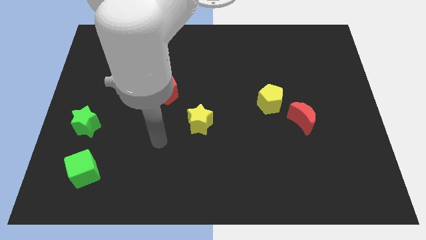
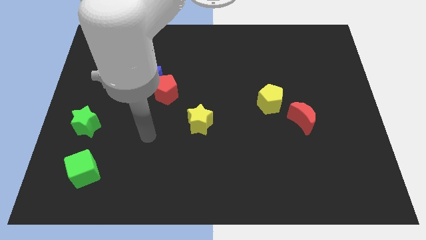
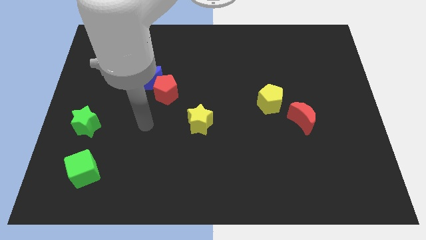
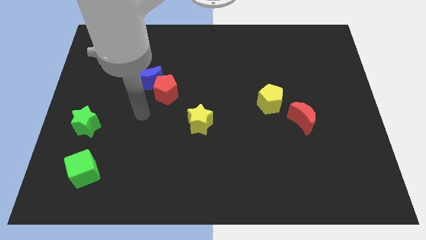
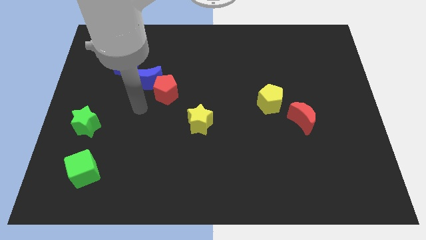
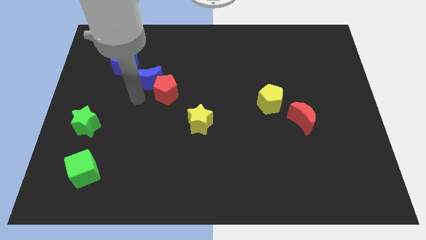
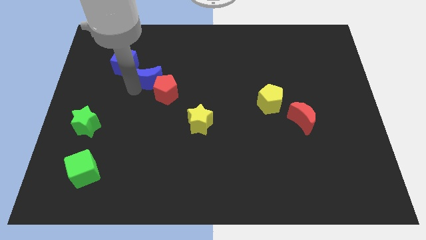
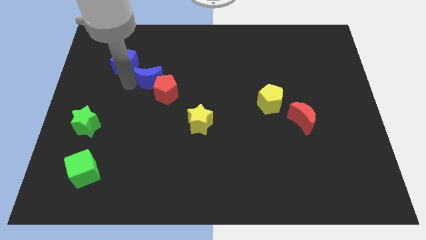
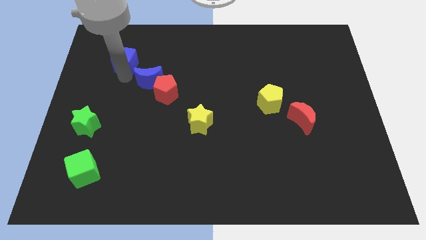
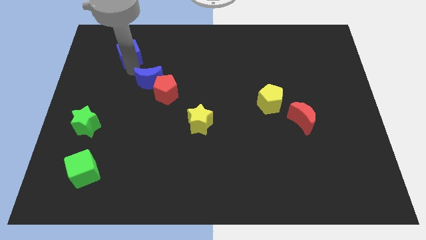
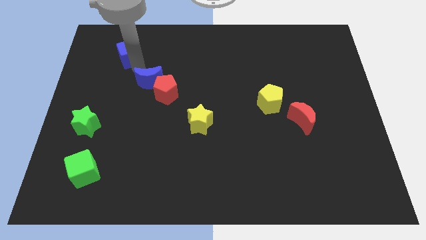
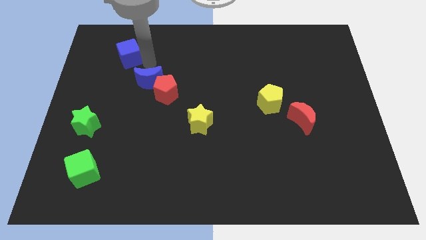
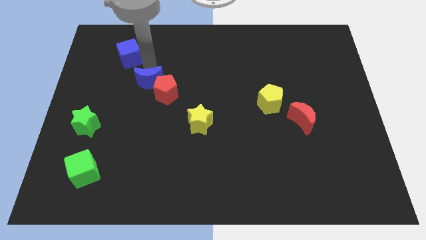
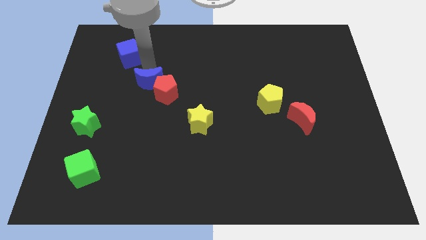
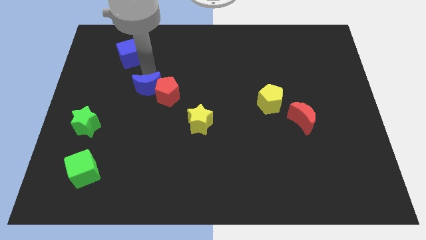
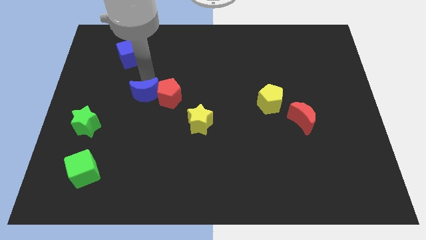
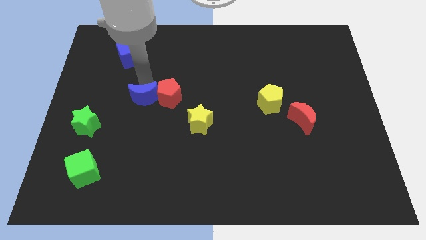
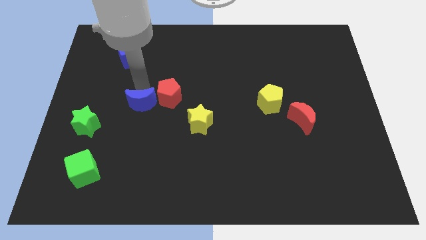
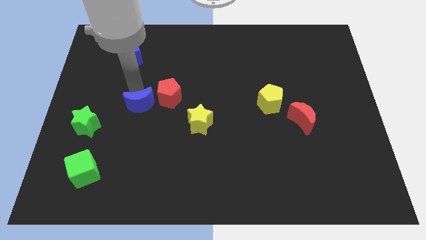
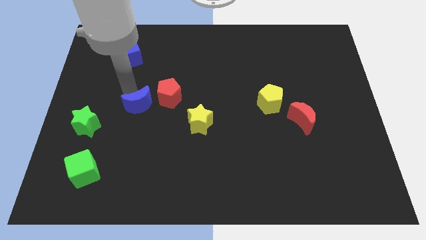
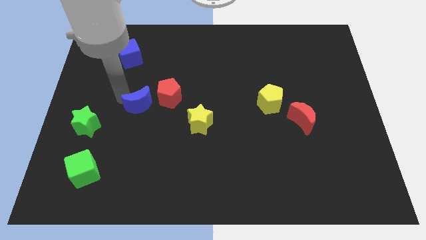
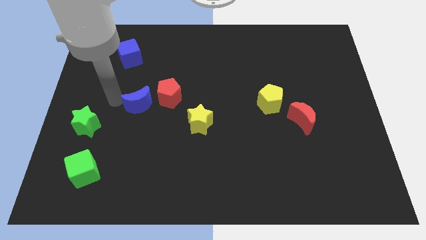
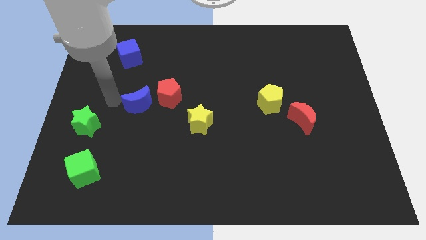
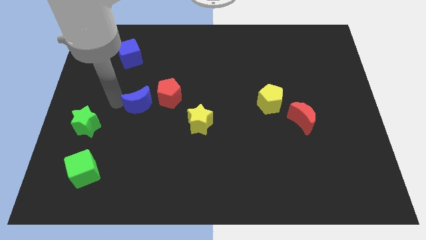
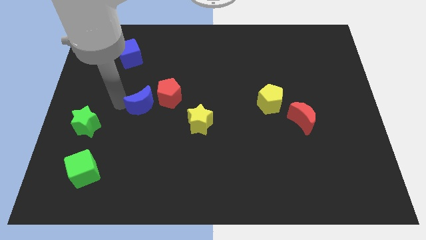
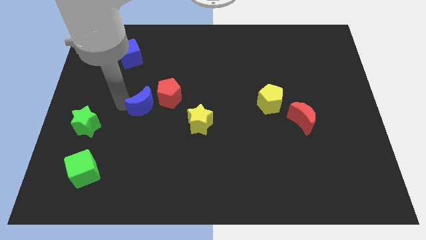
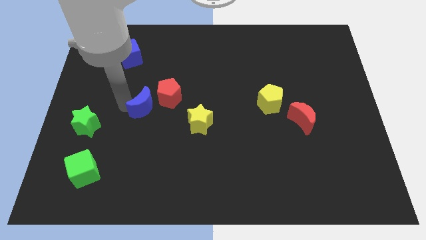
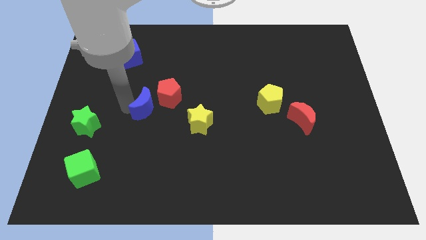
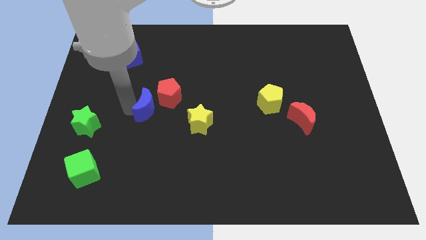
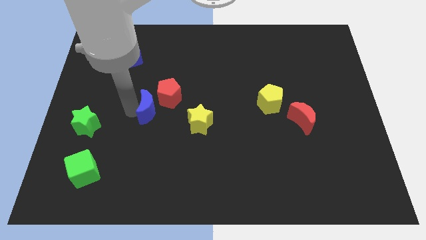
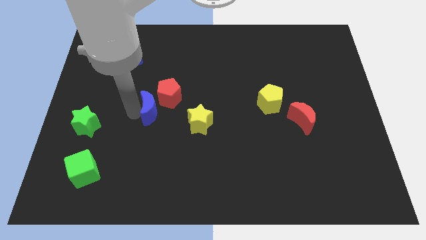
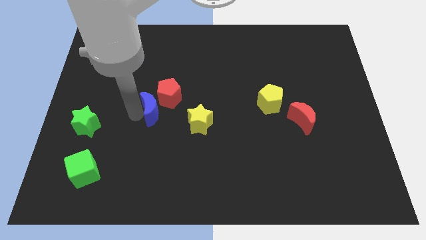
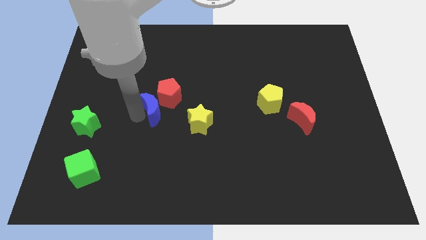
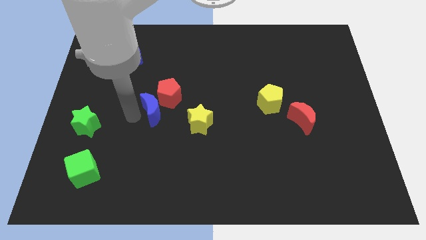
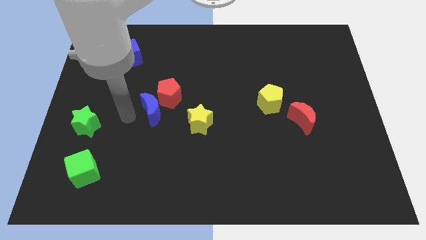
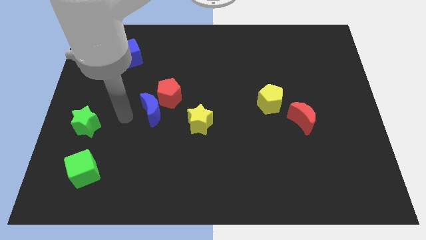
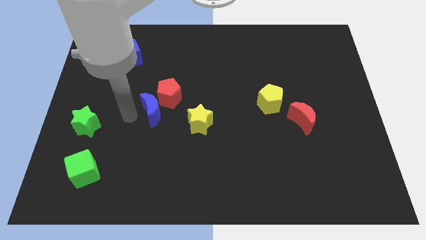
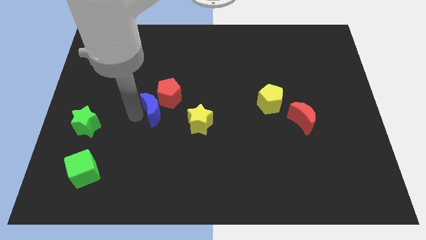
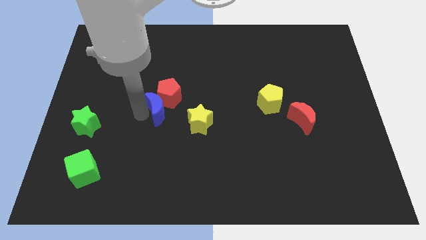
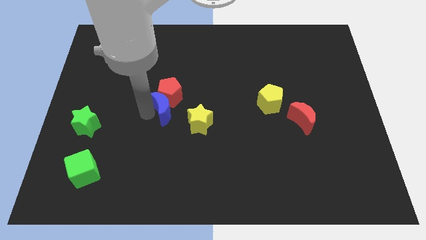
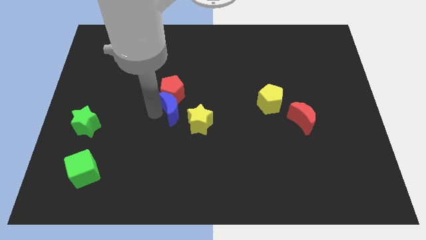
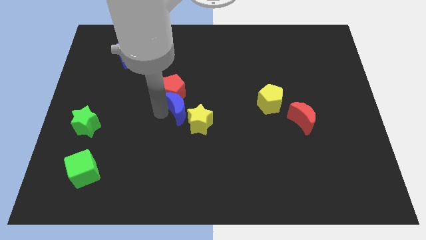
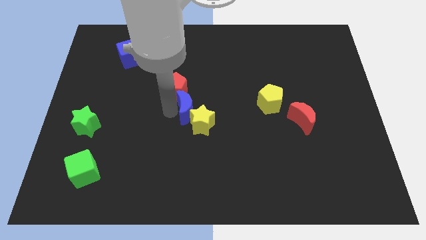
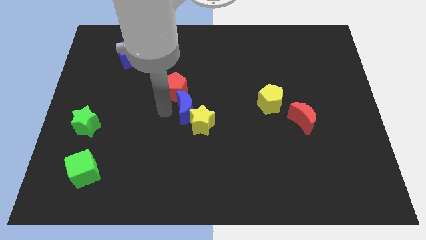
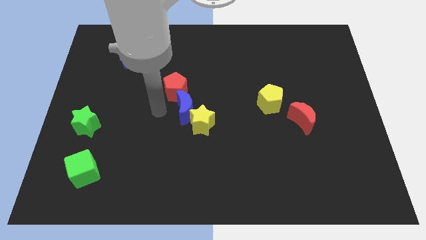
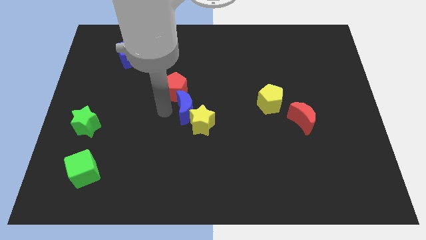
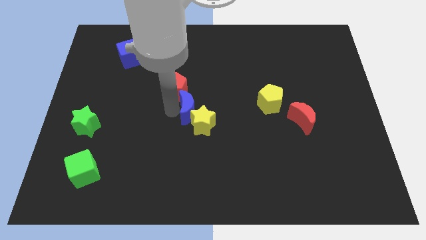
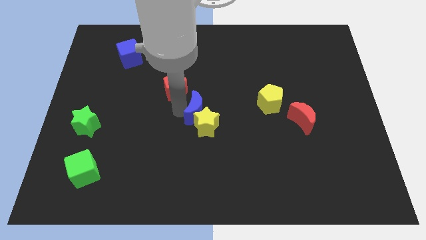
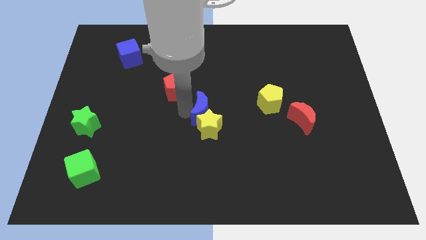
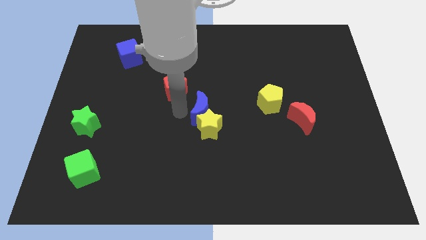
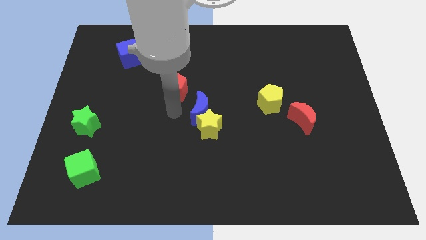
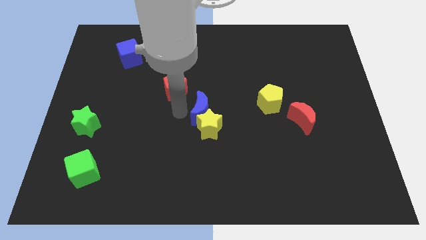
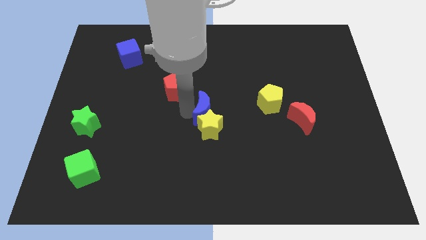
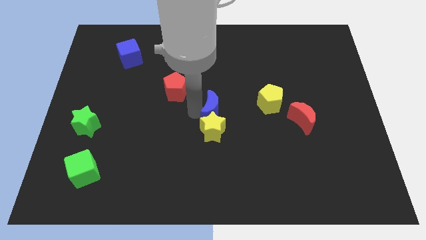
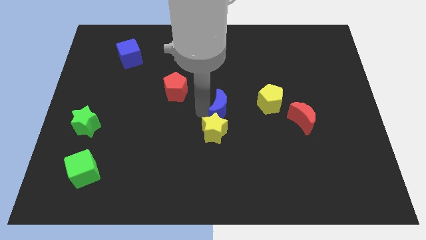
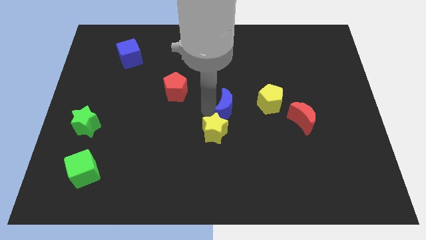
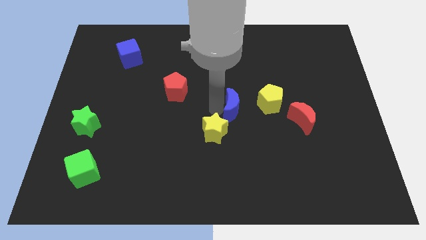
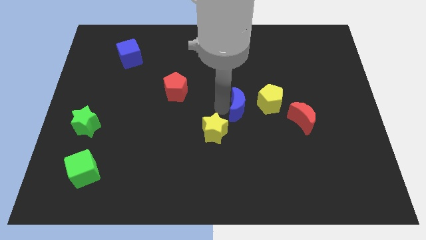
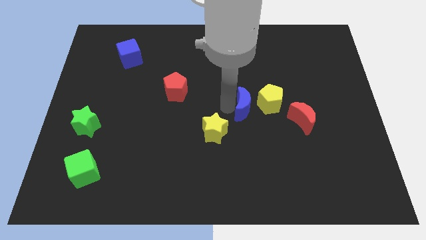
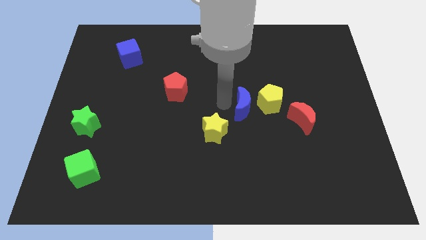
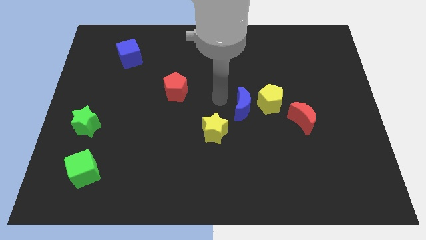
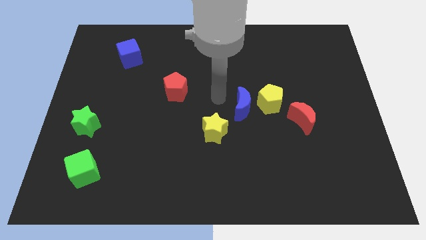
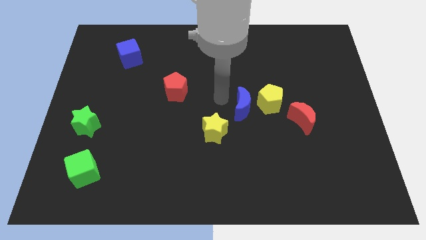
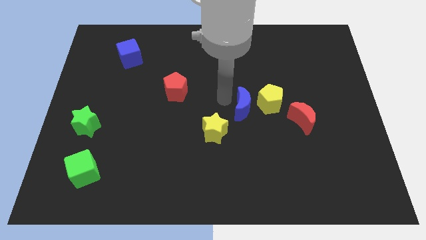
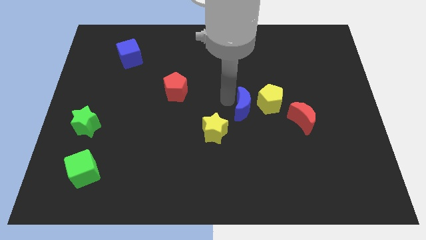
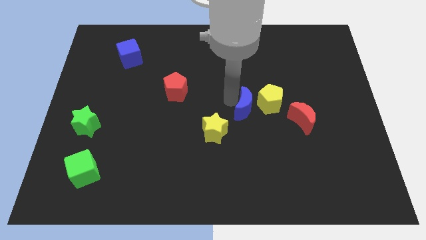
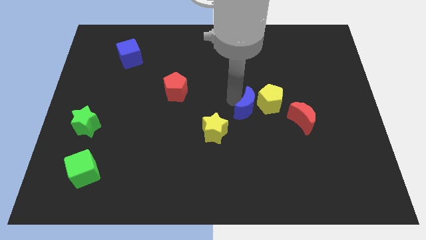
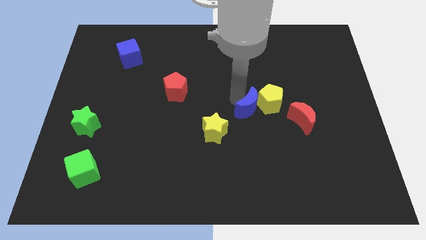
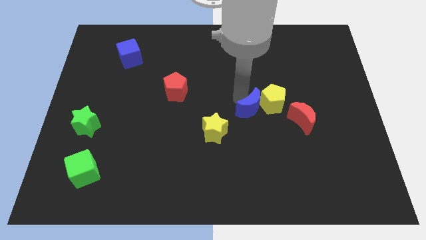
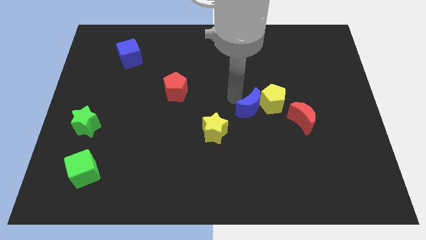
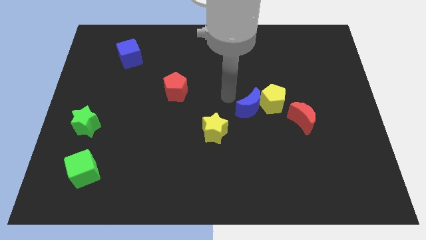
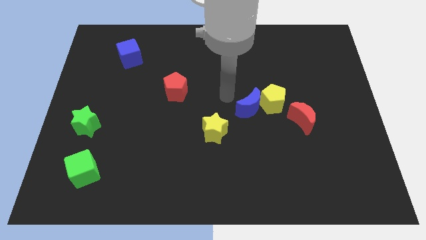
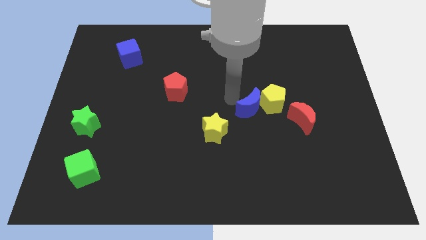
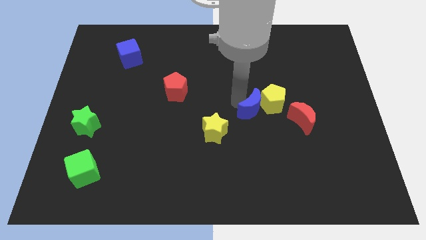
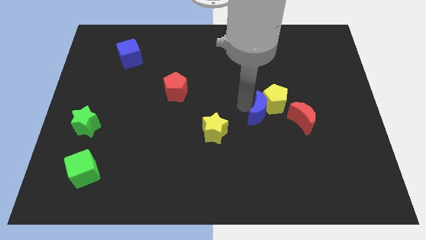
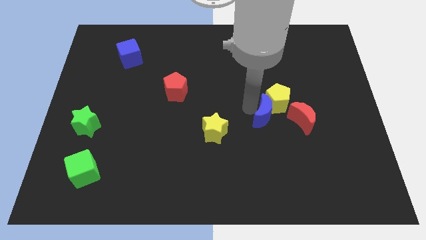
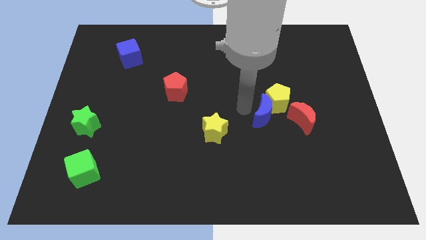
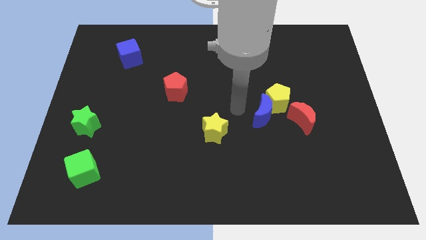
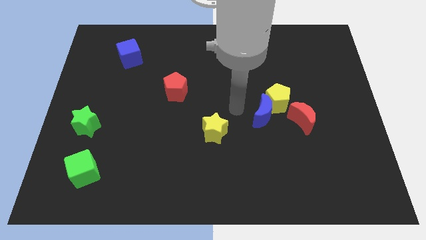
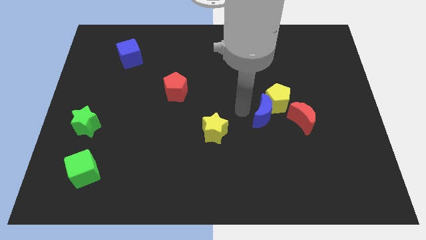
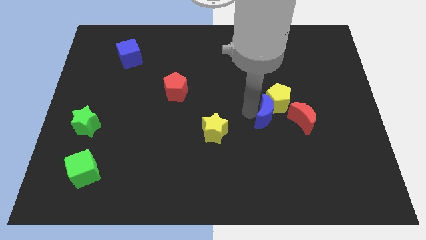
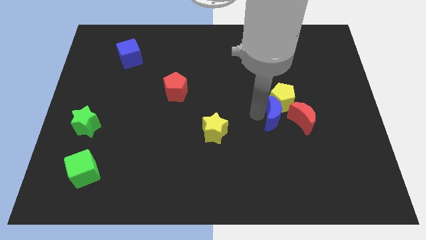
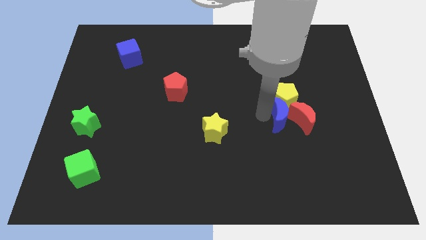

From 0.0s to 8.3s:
move the blue moon towards the red moon

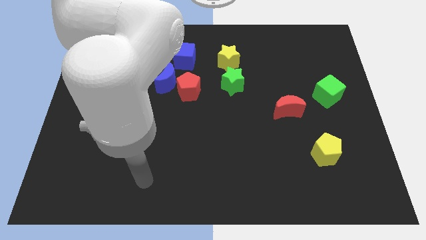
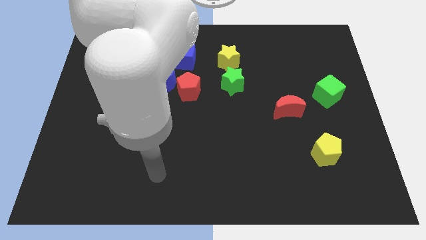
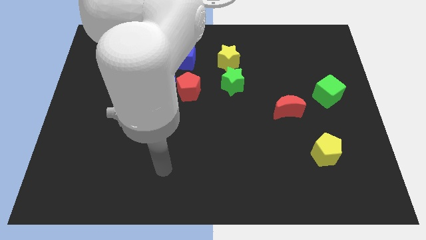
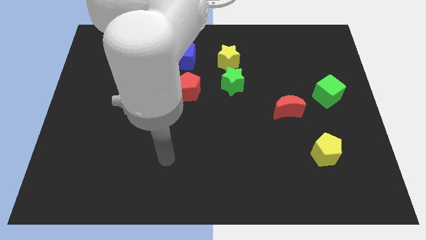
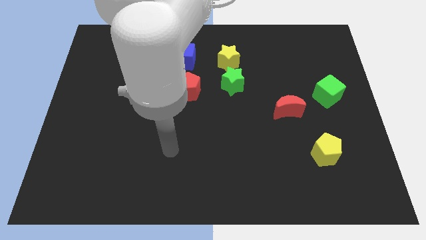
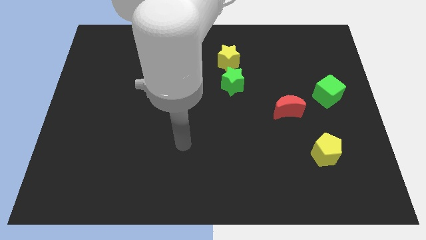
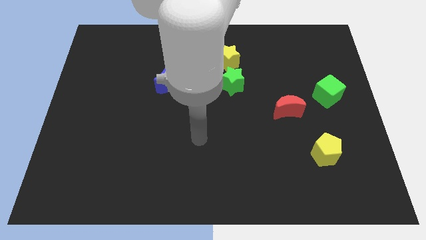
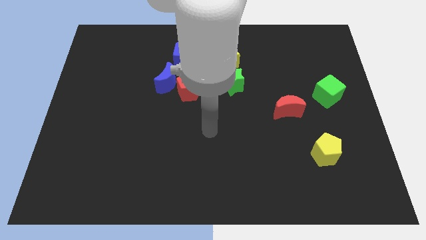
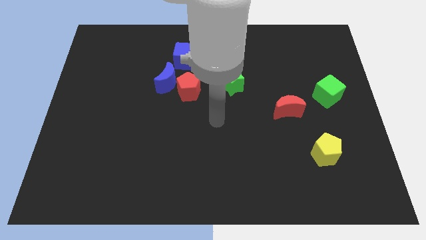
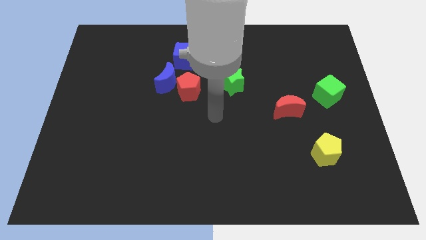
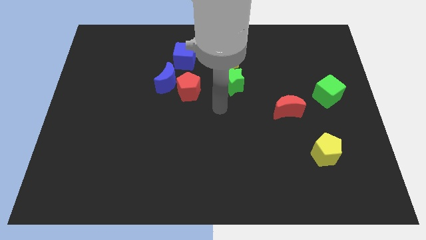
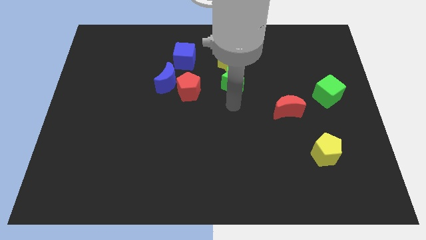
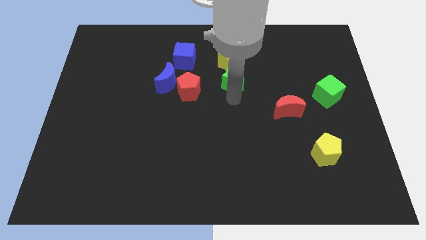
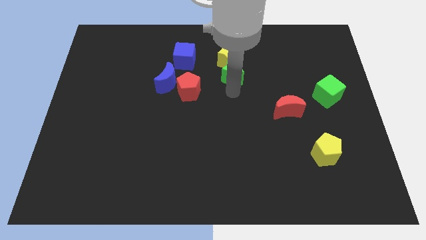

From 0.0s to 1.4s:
slide the green star towards the yellow star
